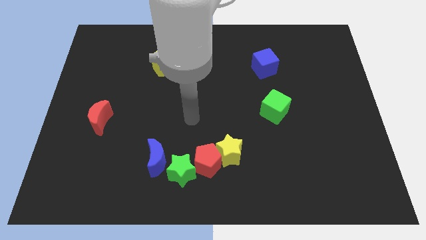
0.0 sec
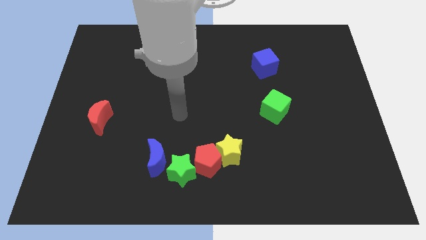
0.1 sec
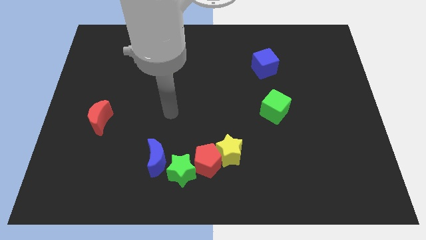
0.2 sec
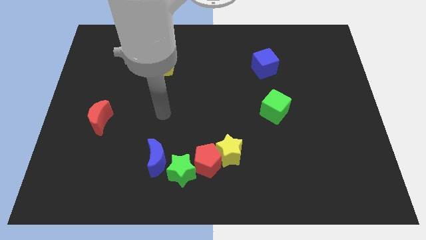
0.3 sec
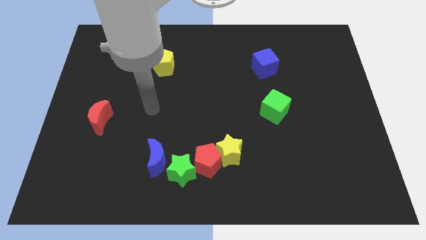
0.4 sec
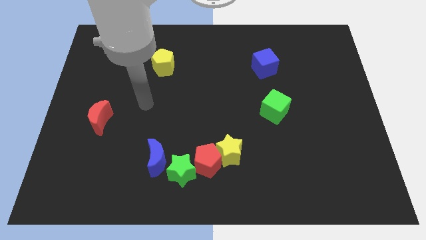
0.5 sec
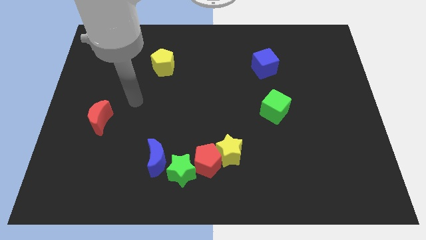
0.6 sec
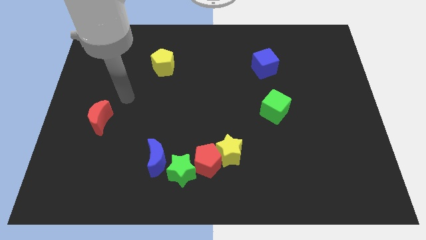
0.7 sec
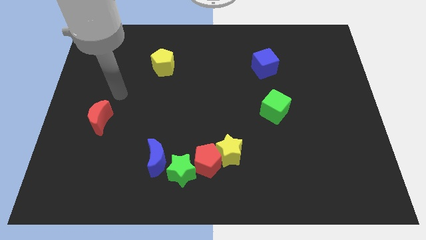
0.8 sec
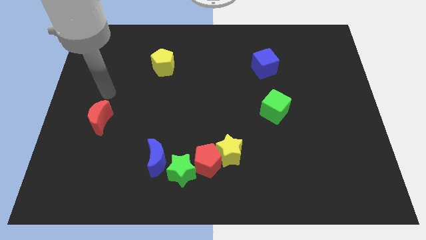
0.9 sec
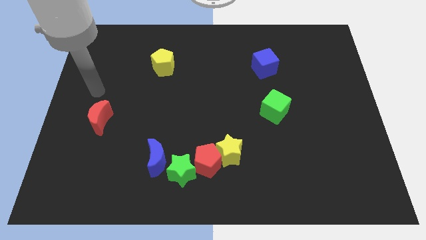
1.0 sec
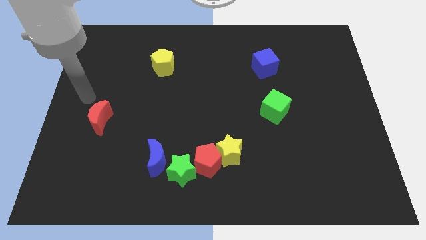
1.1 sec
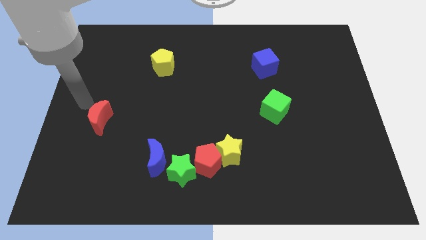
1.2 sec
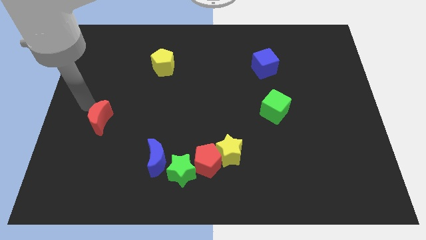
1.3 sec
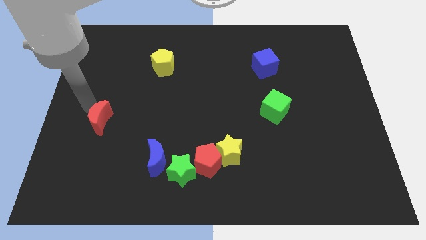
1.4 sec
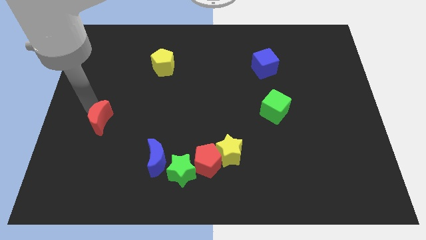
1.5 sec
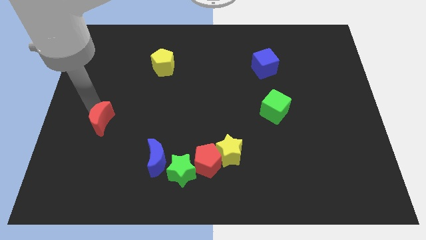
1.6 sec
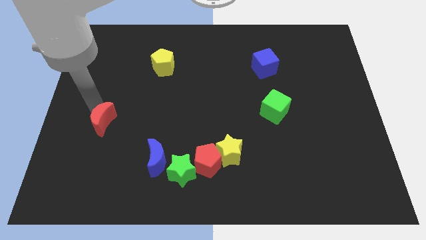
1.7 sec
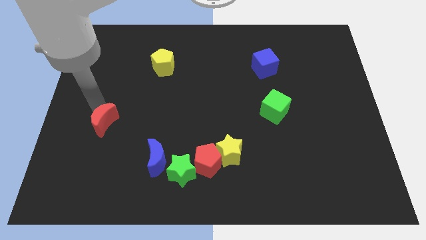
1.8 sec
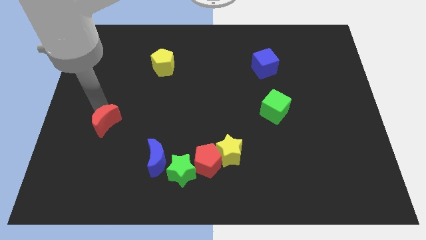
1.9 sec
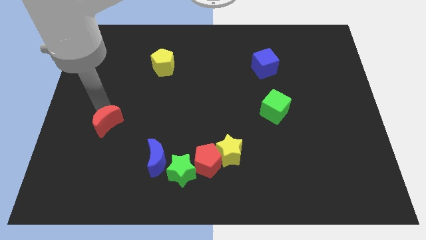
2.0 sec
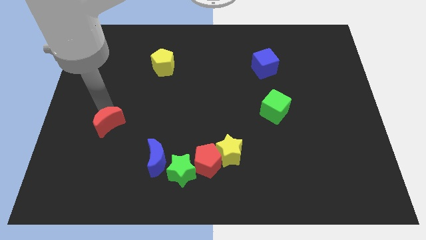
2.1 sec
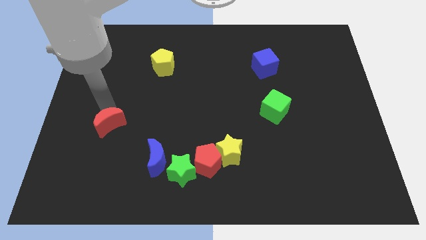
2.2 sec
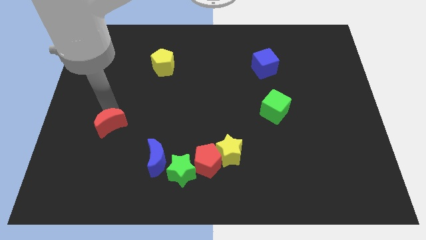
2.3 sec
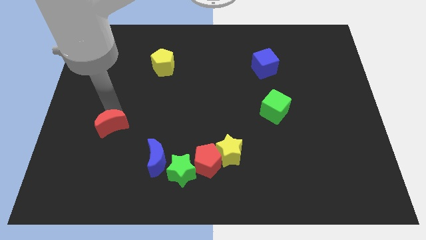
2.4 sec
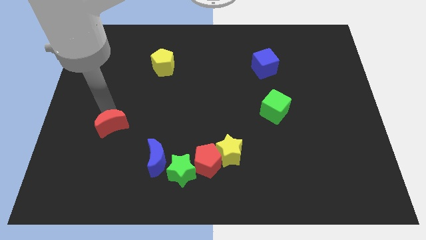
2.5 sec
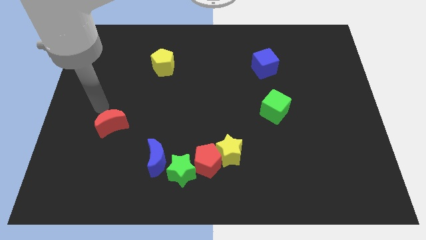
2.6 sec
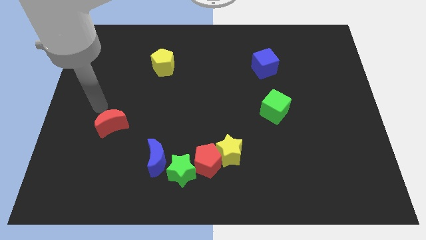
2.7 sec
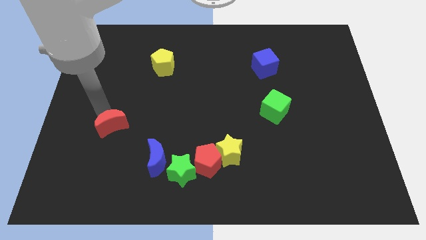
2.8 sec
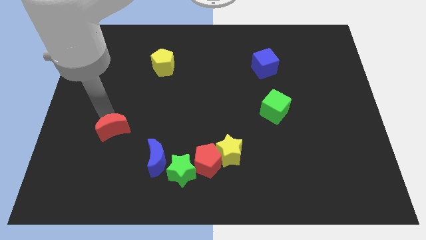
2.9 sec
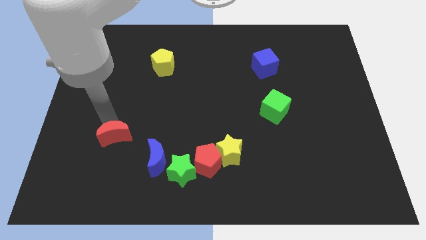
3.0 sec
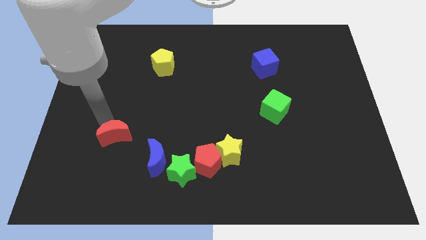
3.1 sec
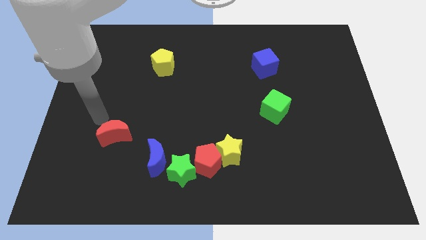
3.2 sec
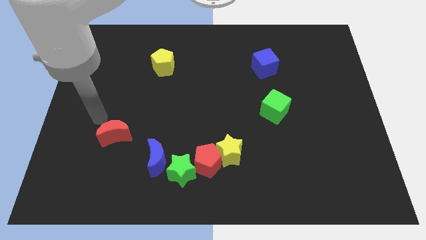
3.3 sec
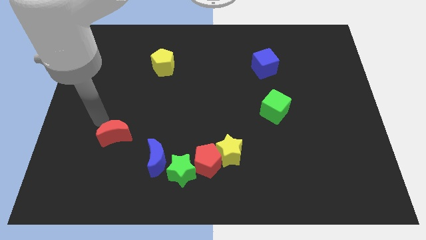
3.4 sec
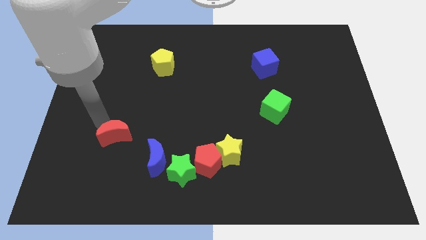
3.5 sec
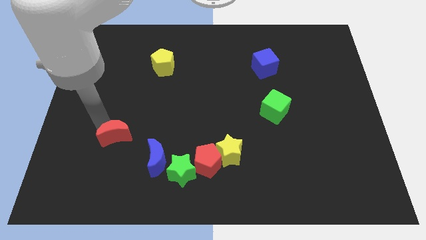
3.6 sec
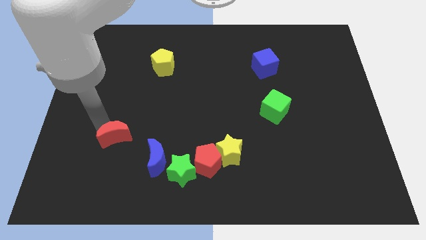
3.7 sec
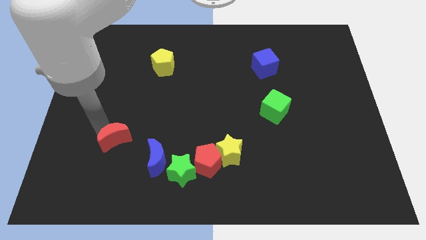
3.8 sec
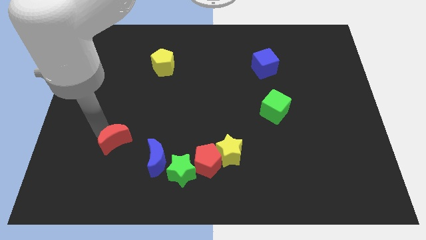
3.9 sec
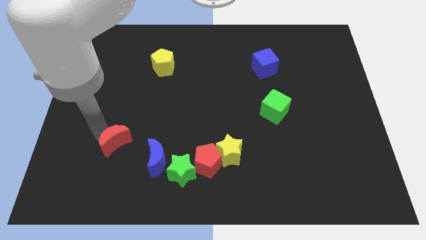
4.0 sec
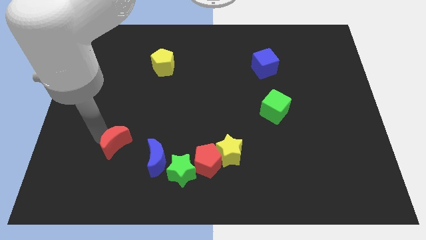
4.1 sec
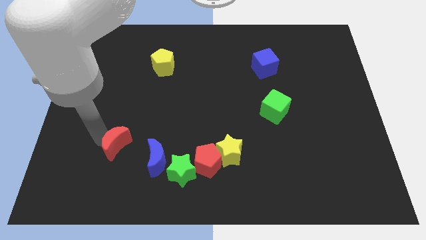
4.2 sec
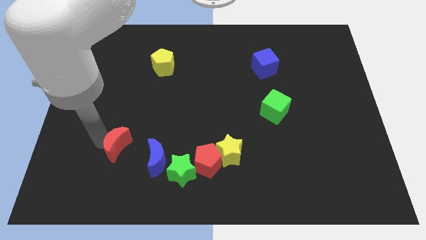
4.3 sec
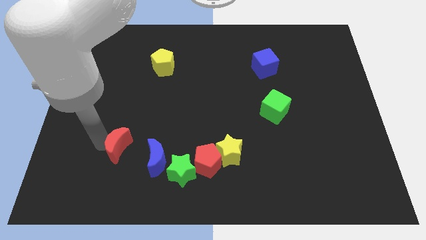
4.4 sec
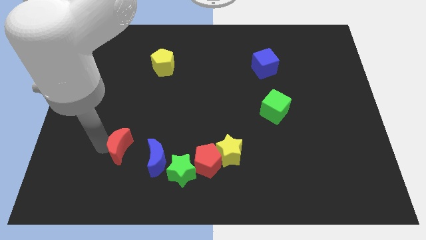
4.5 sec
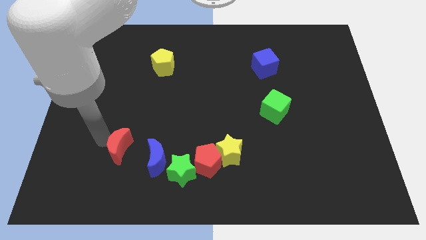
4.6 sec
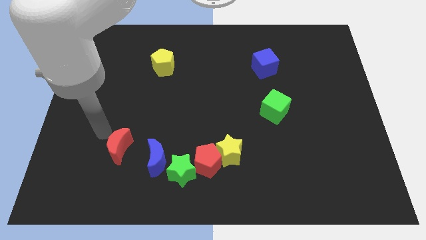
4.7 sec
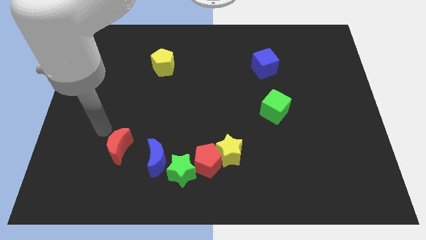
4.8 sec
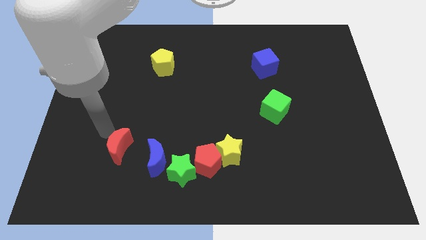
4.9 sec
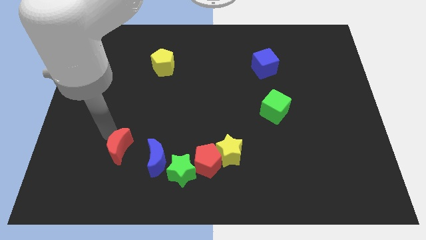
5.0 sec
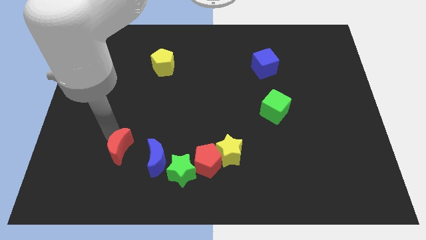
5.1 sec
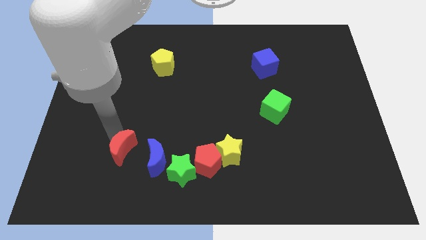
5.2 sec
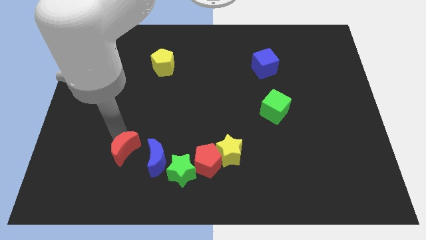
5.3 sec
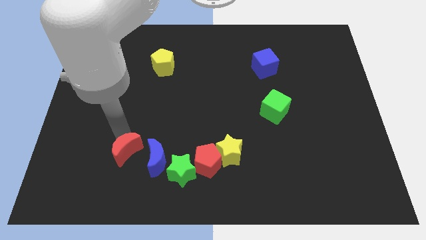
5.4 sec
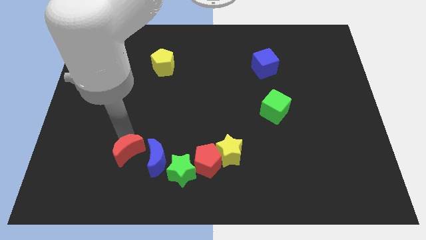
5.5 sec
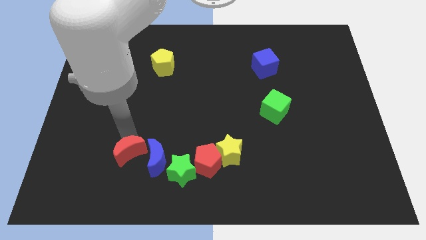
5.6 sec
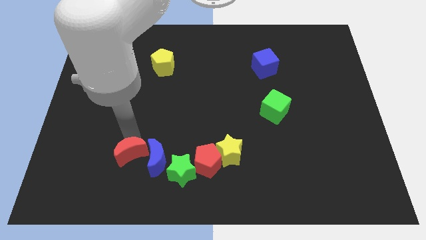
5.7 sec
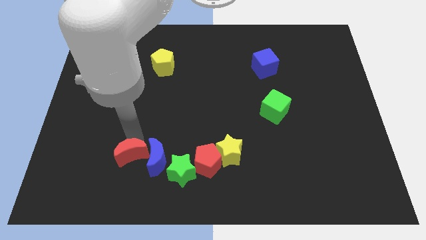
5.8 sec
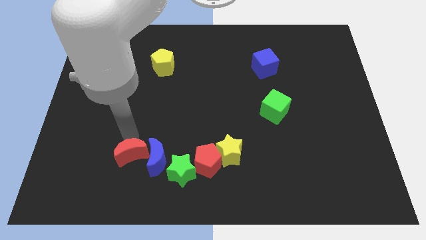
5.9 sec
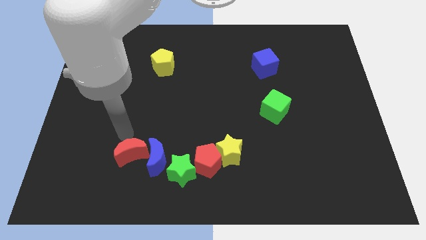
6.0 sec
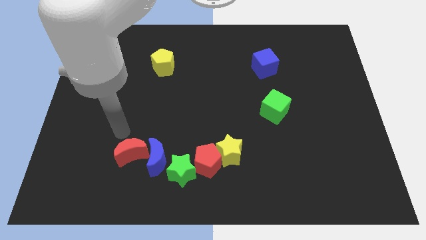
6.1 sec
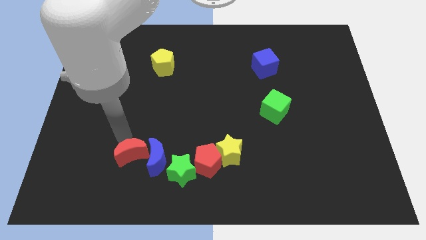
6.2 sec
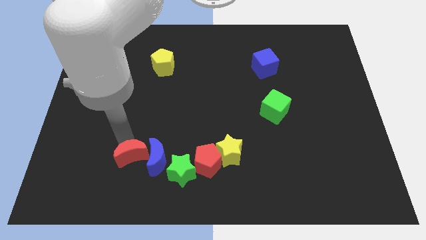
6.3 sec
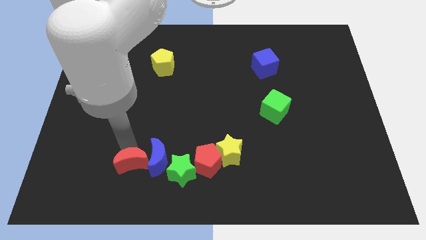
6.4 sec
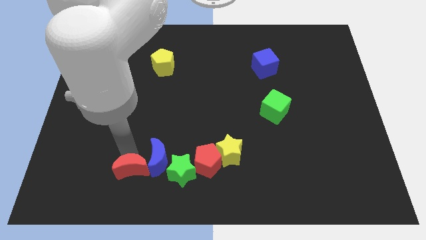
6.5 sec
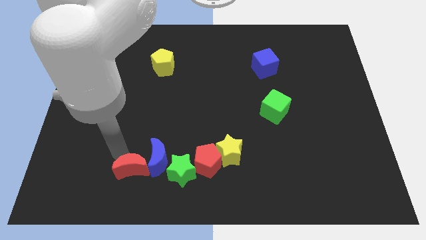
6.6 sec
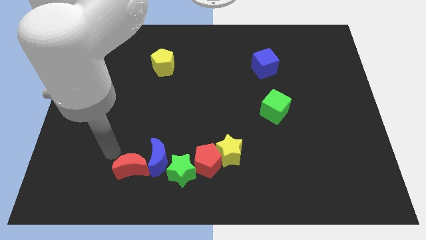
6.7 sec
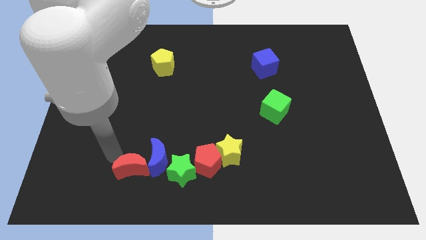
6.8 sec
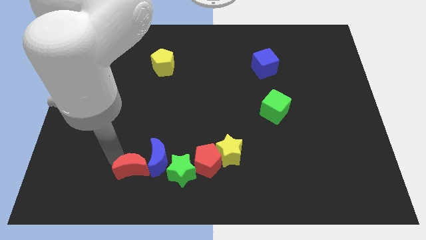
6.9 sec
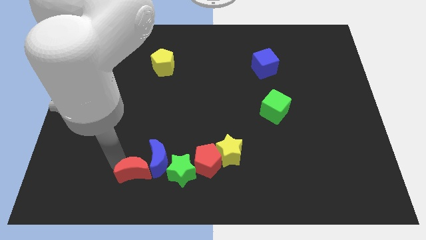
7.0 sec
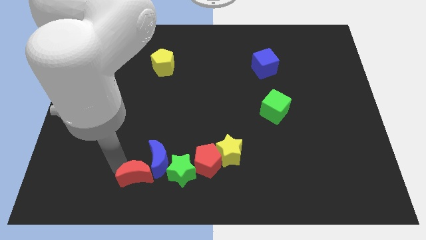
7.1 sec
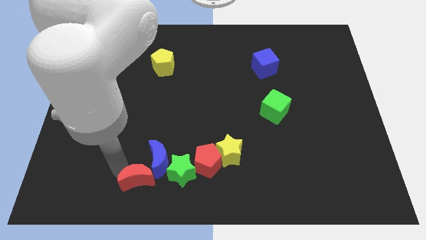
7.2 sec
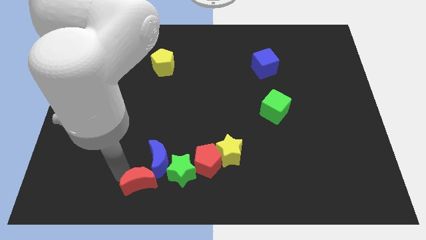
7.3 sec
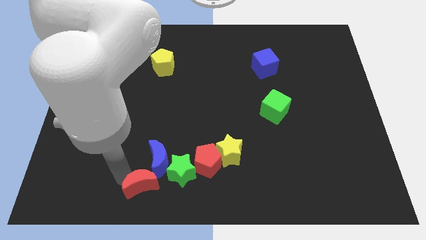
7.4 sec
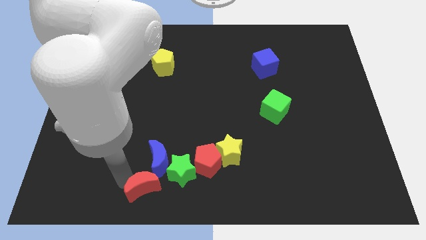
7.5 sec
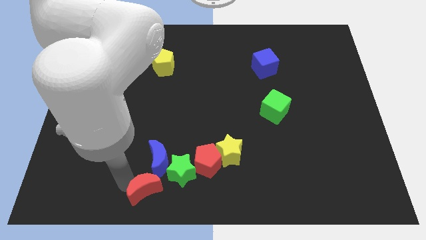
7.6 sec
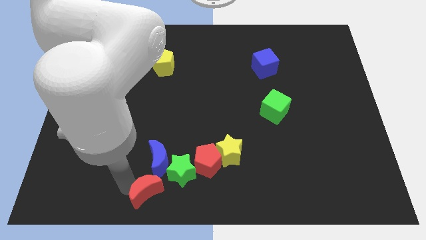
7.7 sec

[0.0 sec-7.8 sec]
push the red moon to the bottom side
